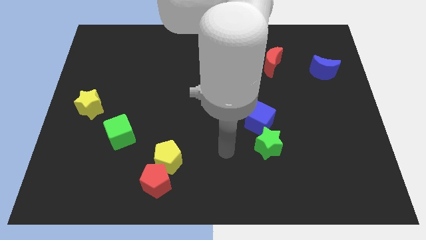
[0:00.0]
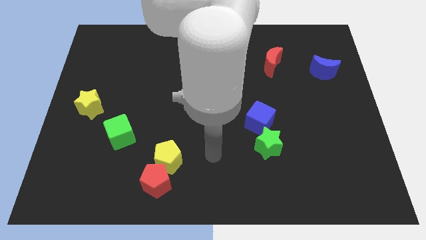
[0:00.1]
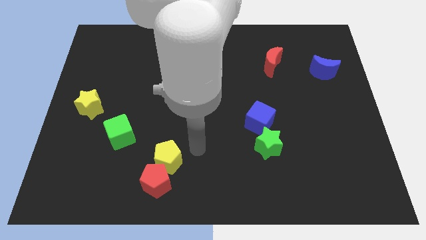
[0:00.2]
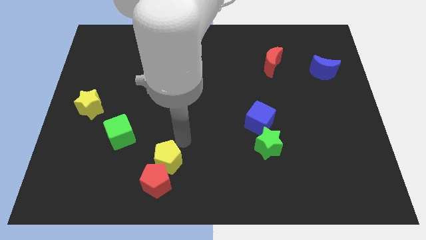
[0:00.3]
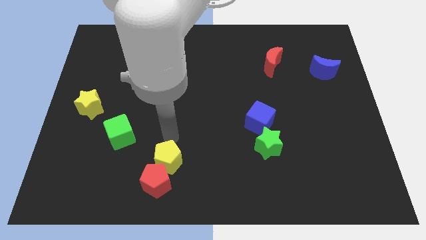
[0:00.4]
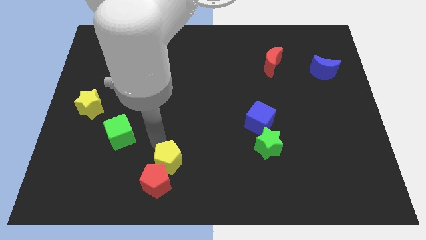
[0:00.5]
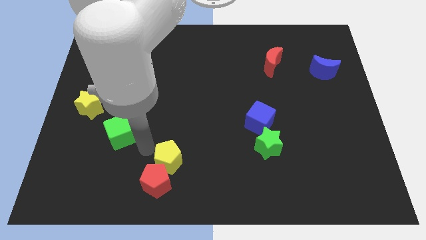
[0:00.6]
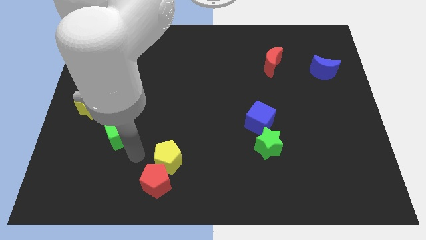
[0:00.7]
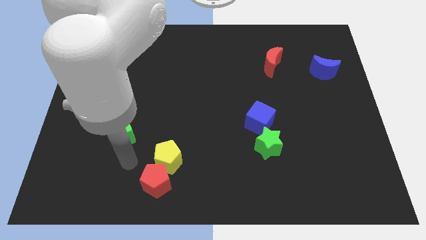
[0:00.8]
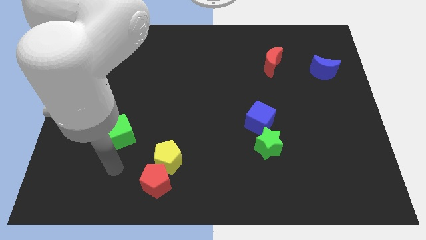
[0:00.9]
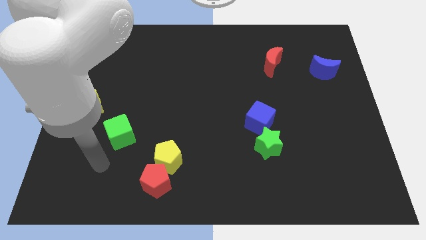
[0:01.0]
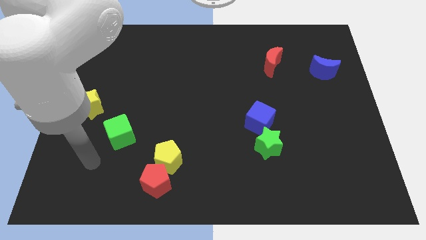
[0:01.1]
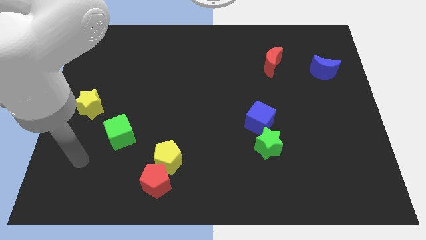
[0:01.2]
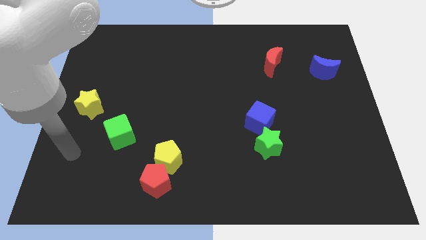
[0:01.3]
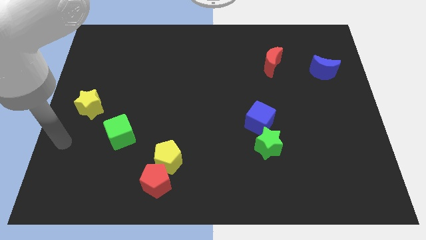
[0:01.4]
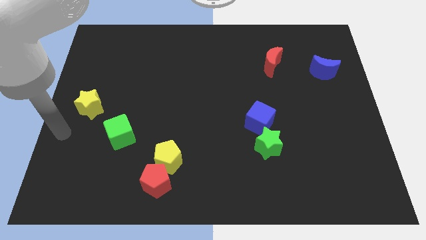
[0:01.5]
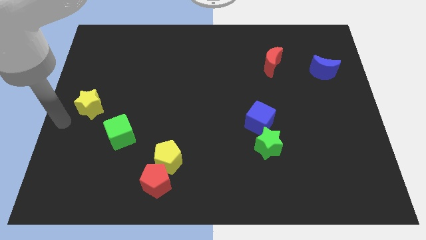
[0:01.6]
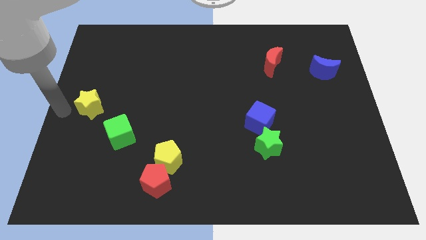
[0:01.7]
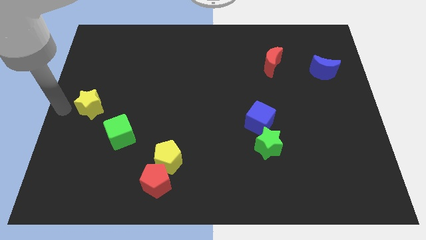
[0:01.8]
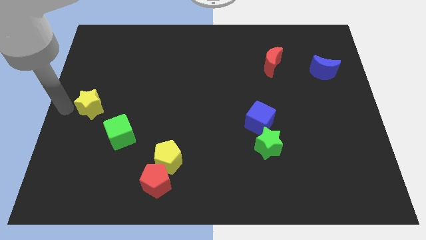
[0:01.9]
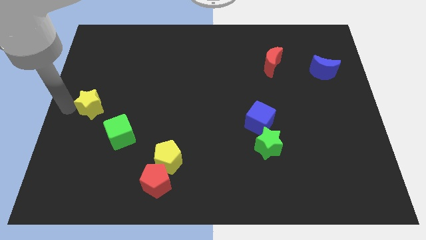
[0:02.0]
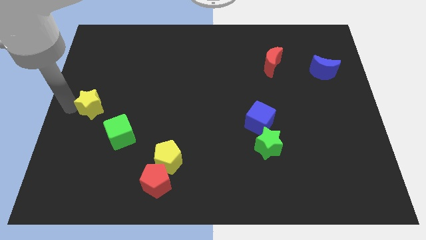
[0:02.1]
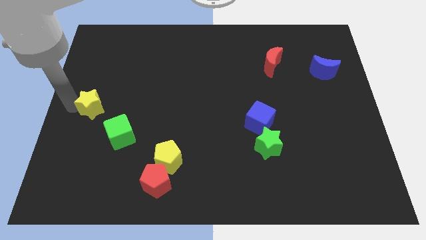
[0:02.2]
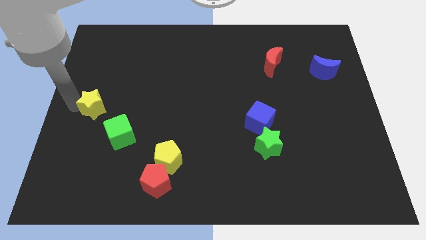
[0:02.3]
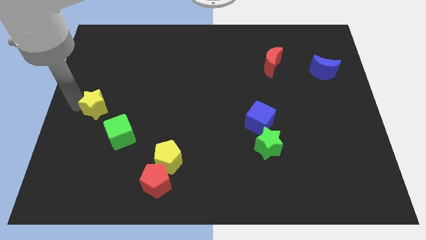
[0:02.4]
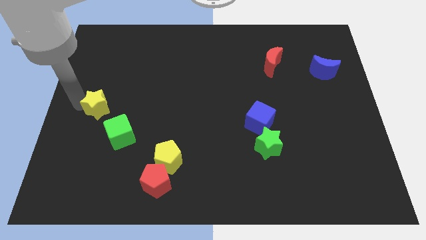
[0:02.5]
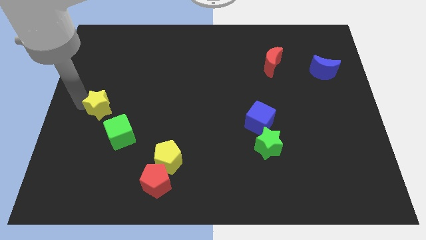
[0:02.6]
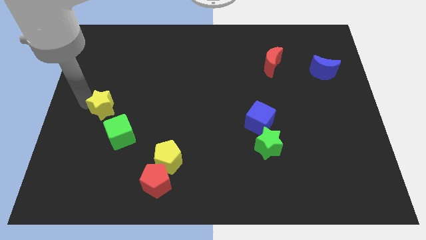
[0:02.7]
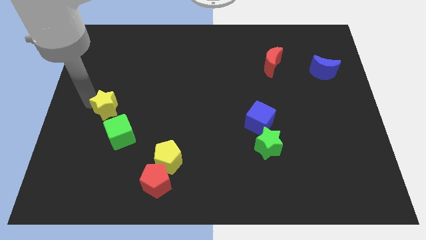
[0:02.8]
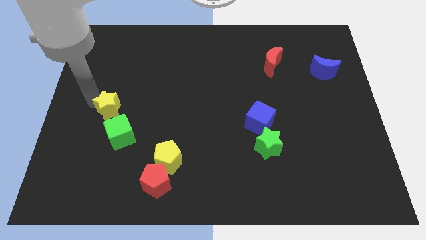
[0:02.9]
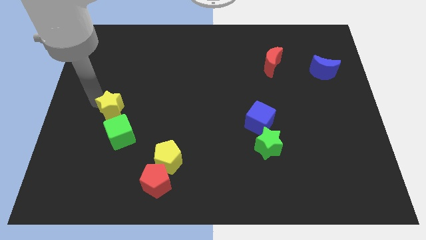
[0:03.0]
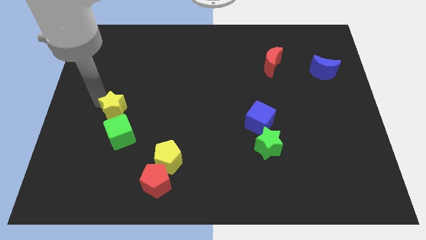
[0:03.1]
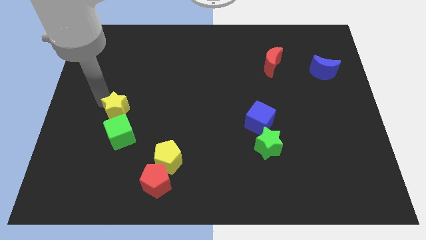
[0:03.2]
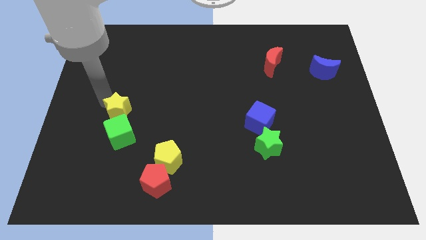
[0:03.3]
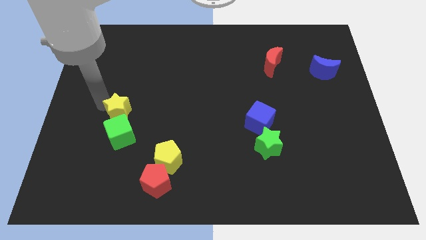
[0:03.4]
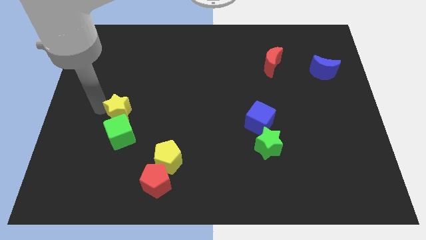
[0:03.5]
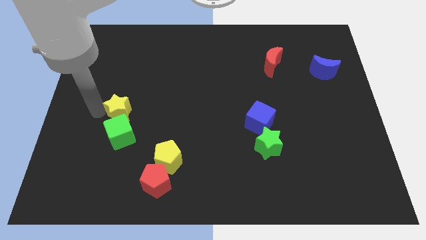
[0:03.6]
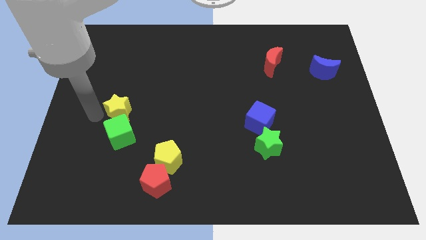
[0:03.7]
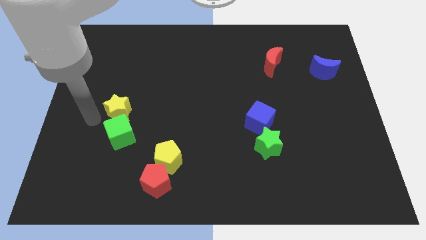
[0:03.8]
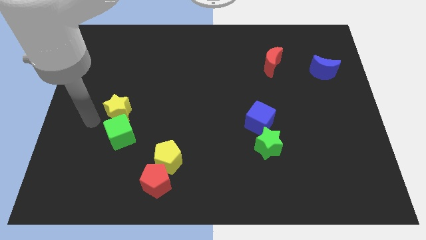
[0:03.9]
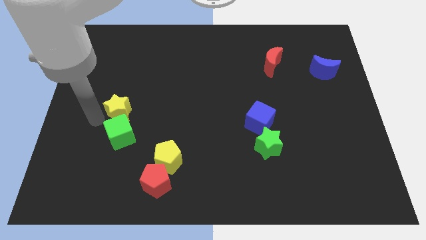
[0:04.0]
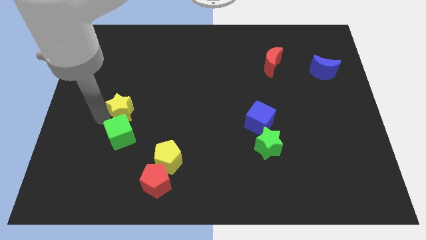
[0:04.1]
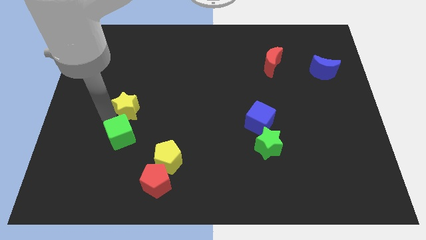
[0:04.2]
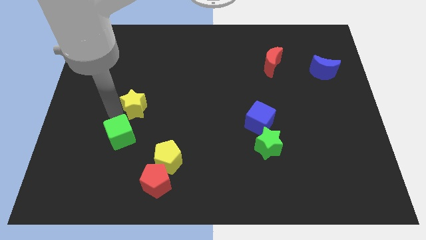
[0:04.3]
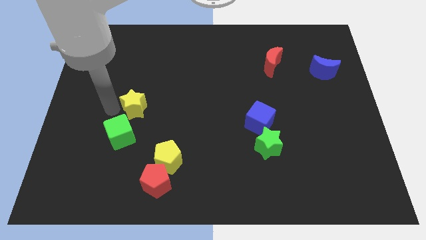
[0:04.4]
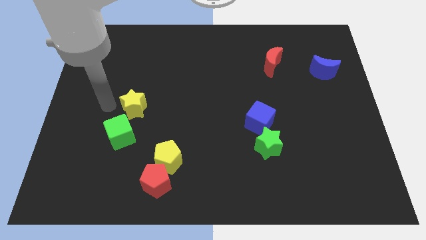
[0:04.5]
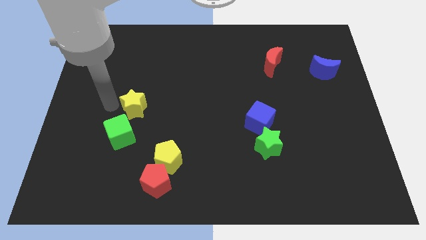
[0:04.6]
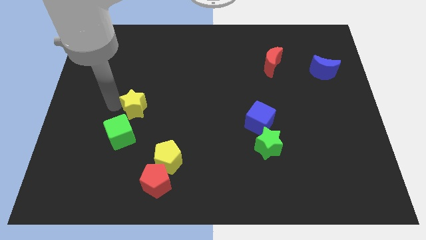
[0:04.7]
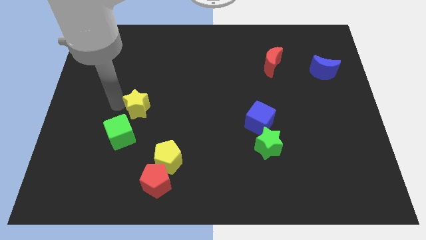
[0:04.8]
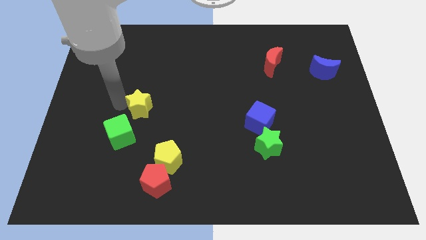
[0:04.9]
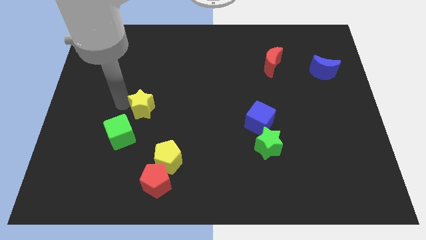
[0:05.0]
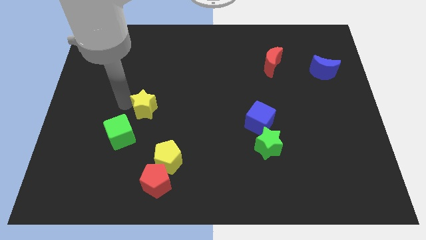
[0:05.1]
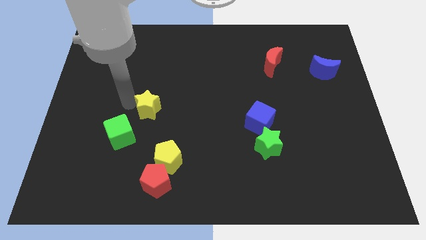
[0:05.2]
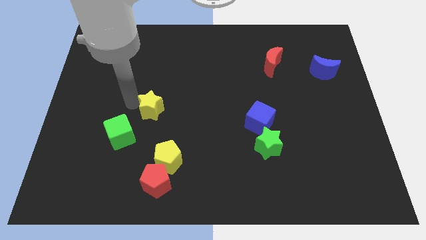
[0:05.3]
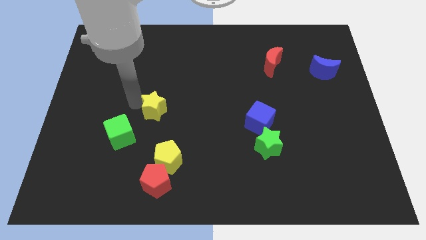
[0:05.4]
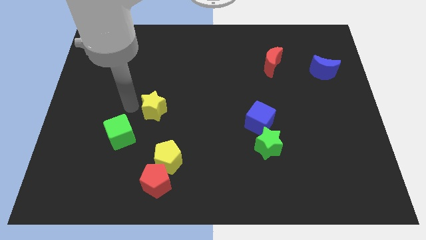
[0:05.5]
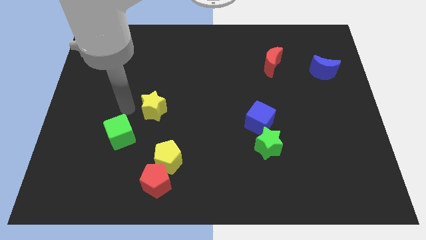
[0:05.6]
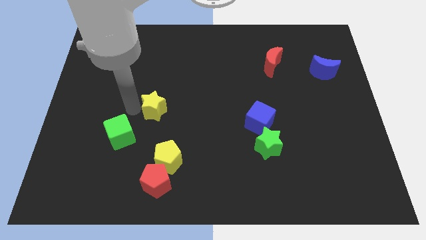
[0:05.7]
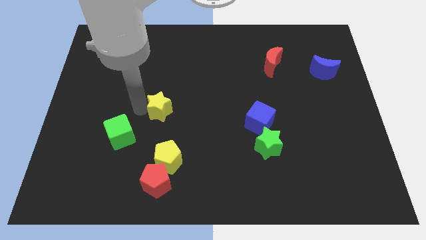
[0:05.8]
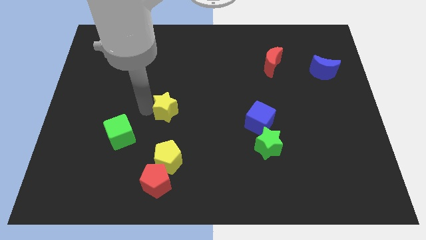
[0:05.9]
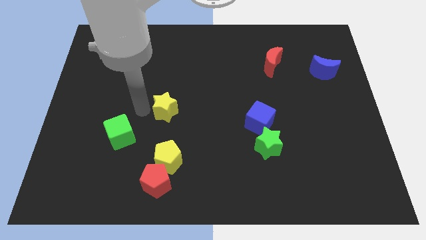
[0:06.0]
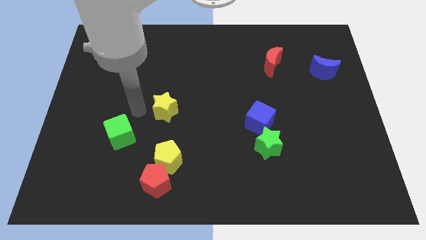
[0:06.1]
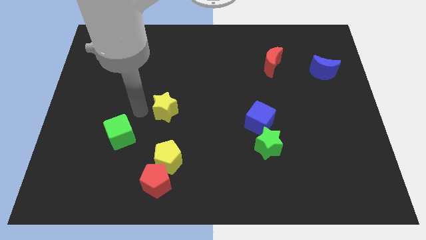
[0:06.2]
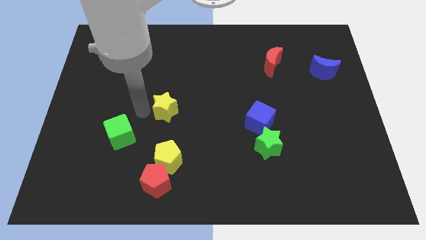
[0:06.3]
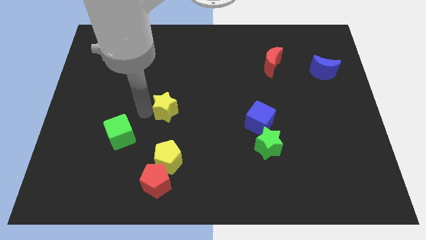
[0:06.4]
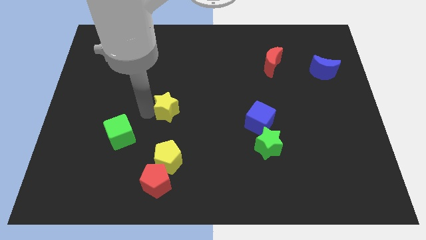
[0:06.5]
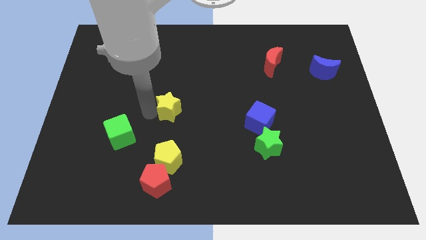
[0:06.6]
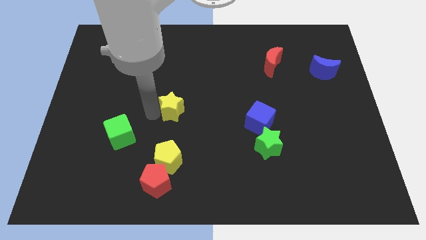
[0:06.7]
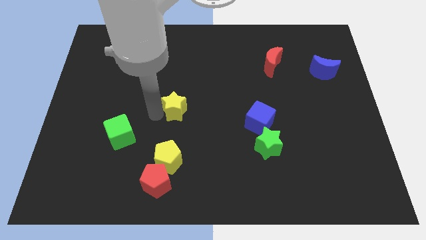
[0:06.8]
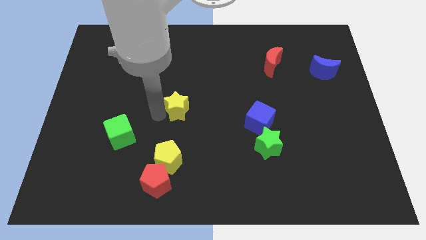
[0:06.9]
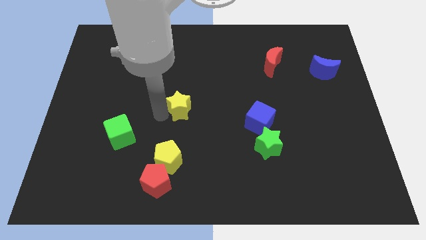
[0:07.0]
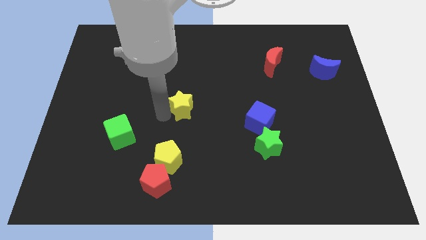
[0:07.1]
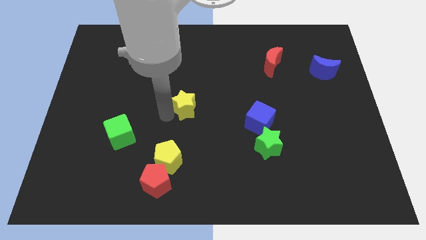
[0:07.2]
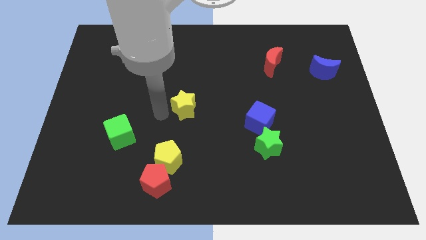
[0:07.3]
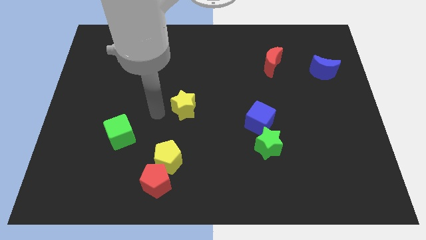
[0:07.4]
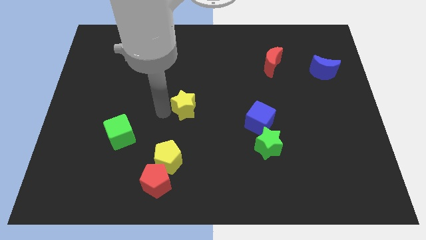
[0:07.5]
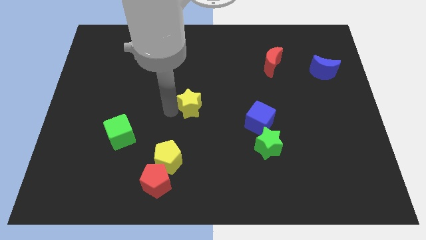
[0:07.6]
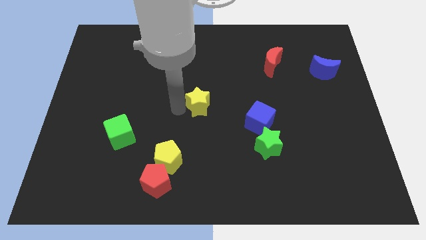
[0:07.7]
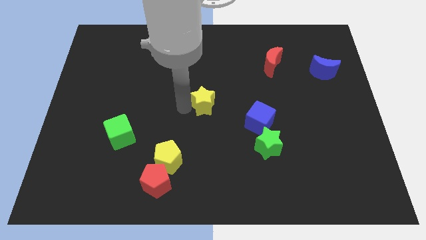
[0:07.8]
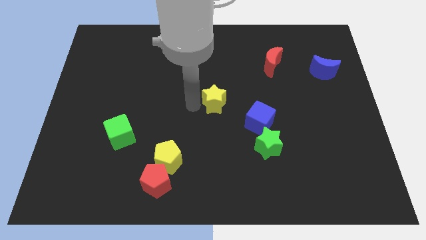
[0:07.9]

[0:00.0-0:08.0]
slide the yellow star diagonally up and to the left of the blue cube

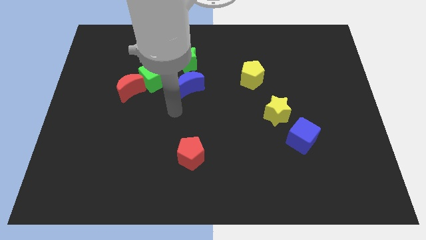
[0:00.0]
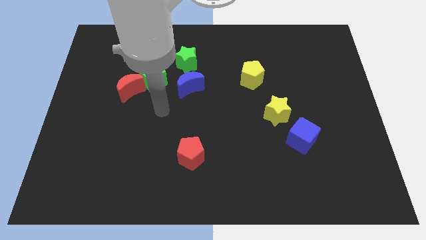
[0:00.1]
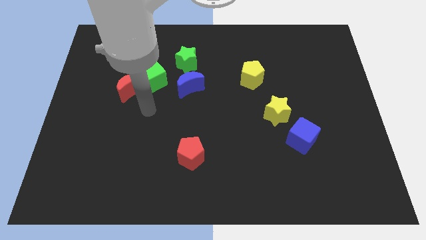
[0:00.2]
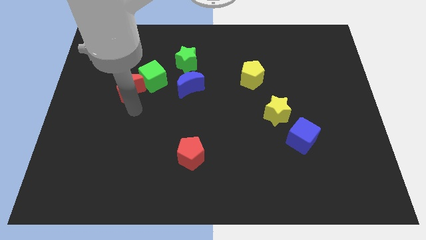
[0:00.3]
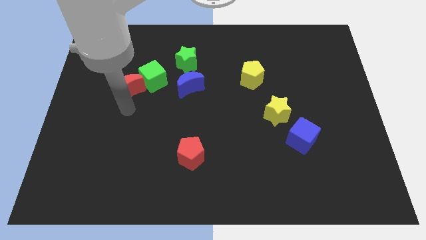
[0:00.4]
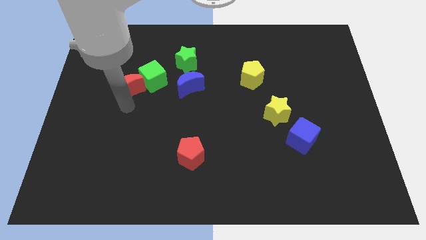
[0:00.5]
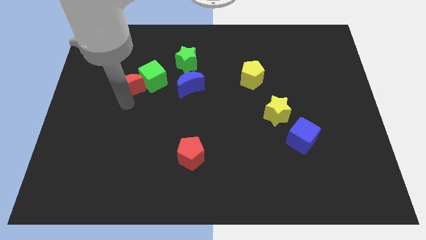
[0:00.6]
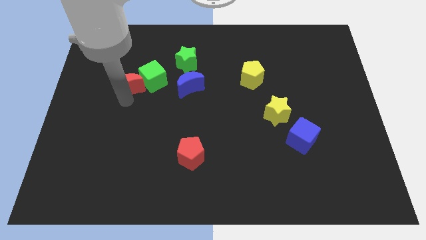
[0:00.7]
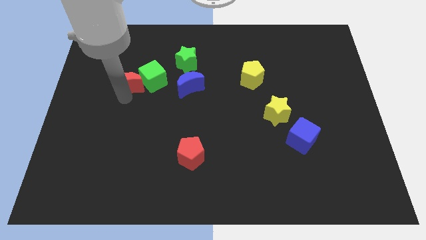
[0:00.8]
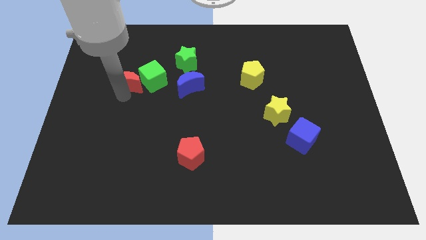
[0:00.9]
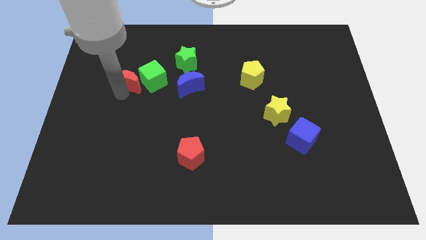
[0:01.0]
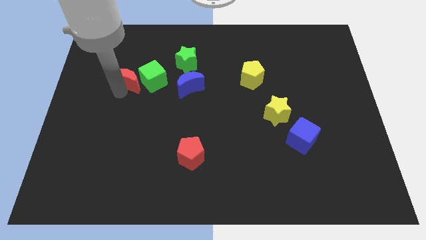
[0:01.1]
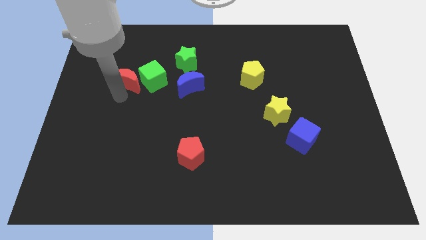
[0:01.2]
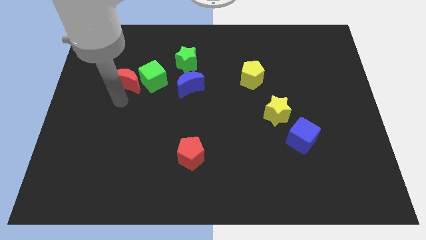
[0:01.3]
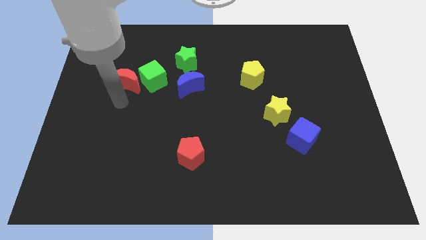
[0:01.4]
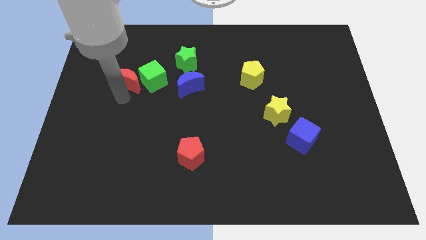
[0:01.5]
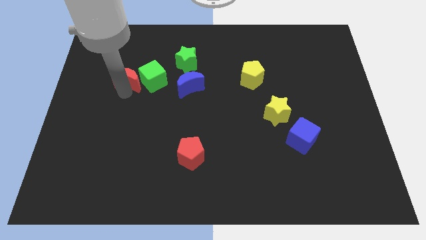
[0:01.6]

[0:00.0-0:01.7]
slide the red moon diagonally up and to the left of the green cube
